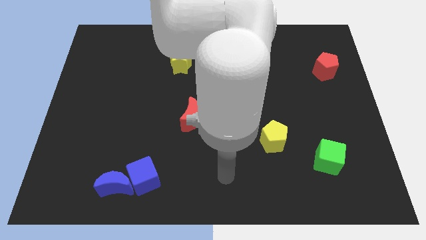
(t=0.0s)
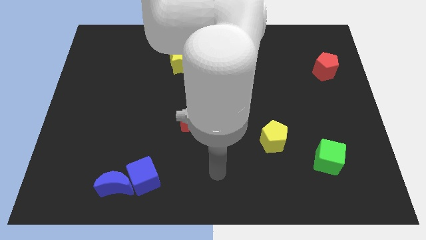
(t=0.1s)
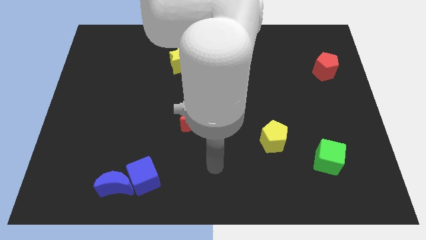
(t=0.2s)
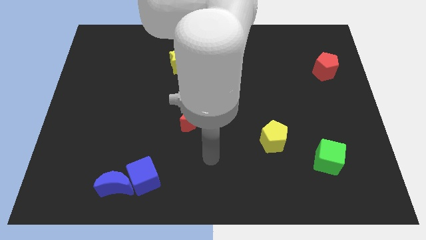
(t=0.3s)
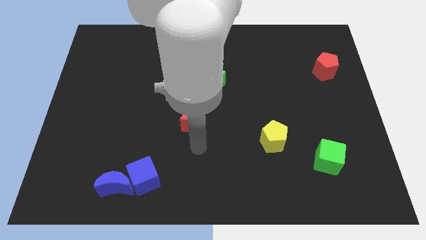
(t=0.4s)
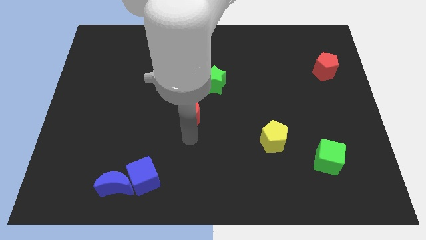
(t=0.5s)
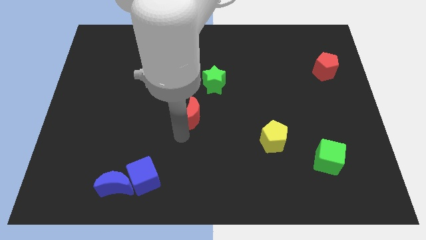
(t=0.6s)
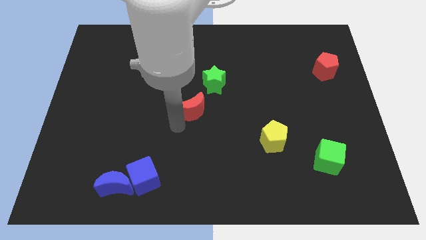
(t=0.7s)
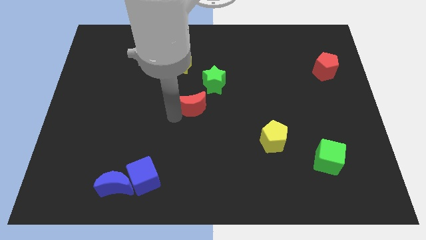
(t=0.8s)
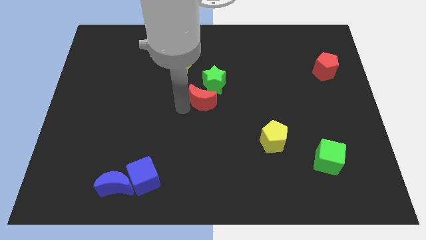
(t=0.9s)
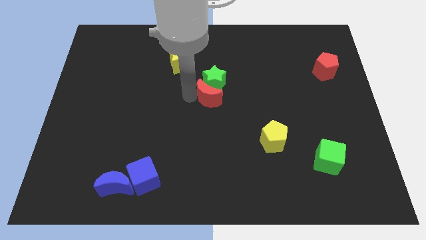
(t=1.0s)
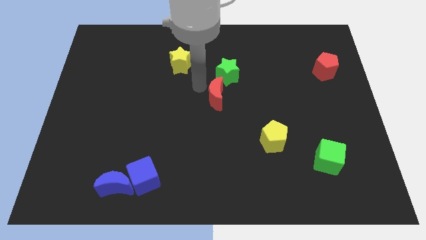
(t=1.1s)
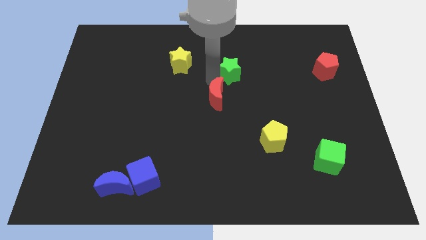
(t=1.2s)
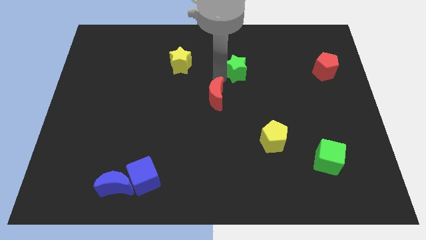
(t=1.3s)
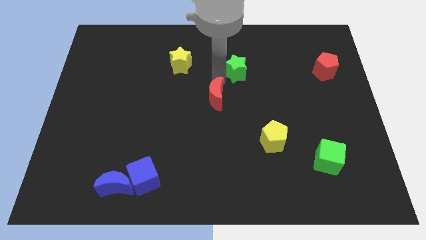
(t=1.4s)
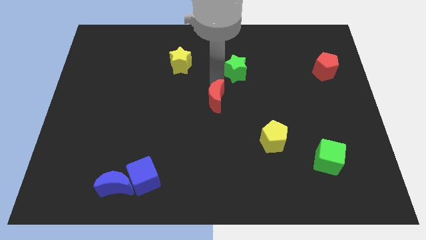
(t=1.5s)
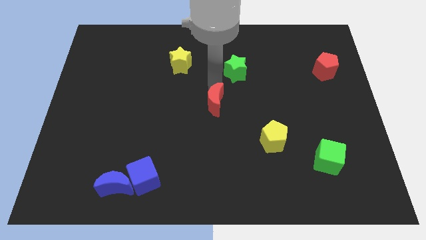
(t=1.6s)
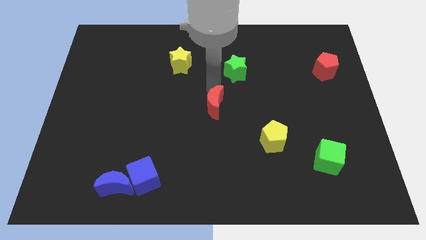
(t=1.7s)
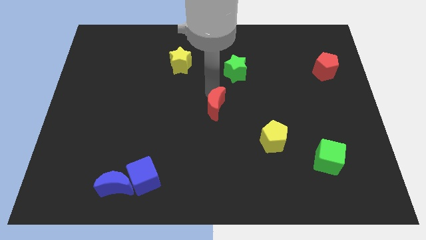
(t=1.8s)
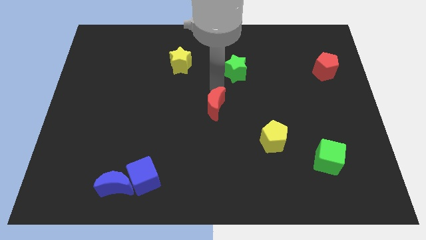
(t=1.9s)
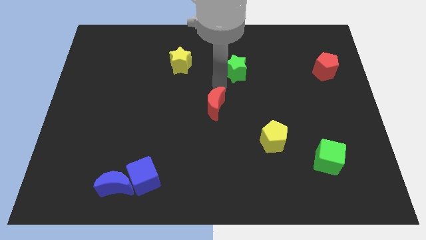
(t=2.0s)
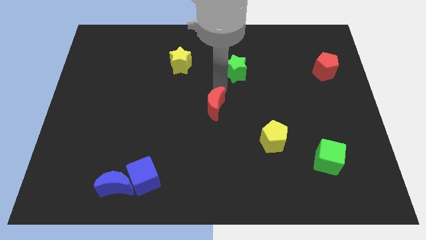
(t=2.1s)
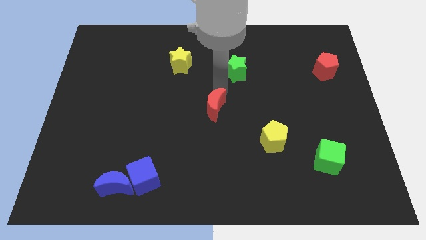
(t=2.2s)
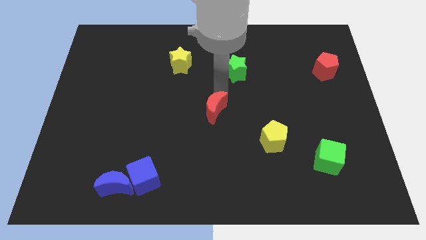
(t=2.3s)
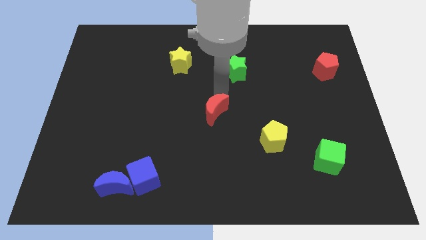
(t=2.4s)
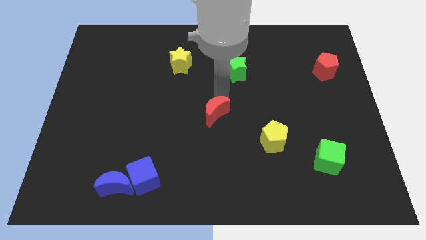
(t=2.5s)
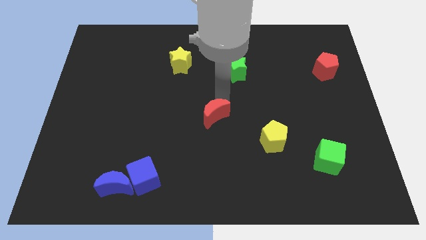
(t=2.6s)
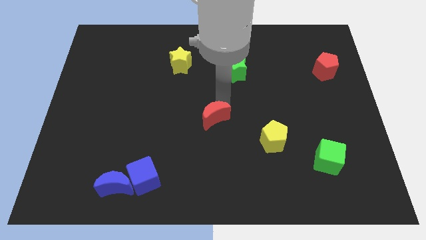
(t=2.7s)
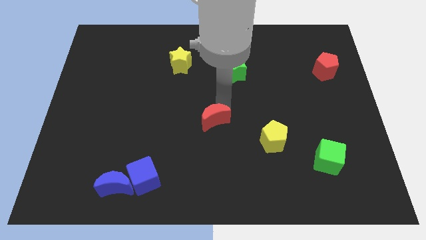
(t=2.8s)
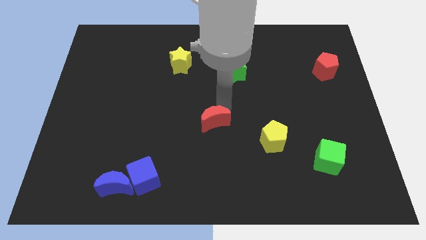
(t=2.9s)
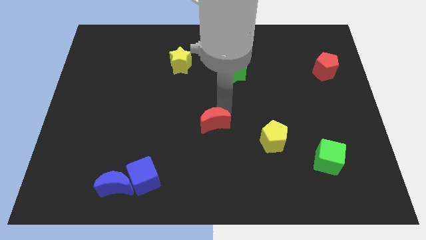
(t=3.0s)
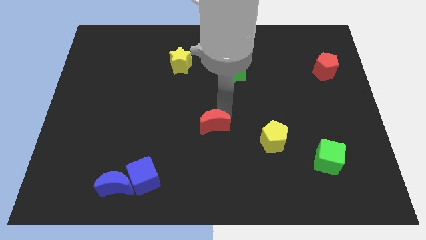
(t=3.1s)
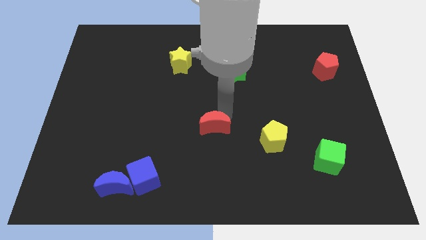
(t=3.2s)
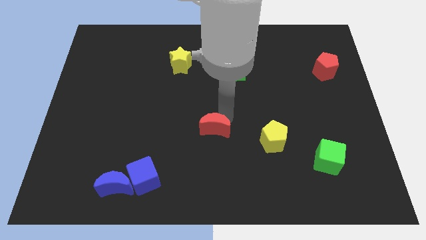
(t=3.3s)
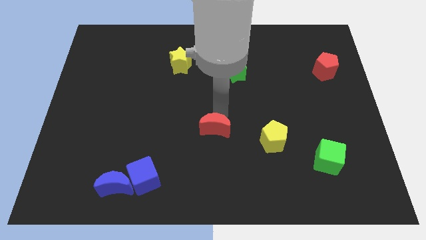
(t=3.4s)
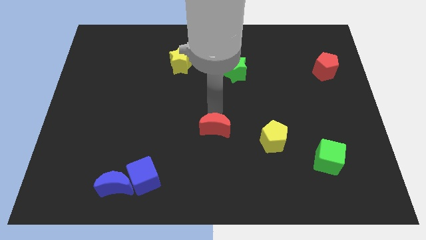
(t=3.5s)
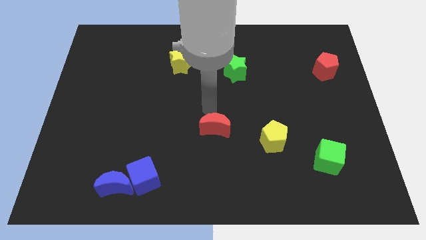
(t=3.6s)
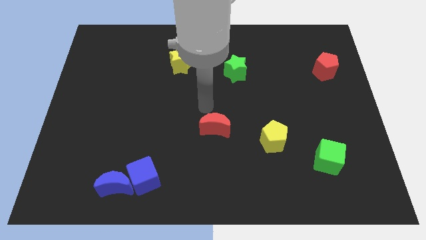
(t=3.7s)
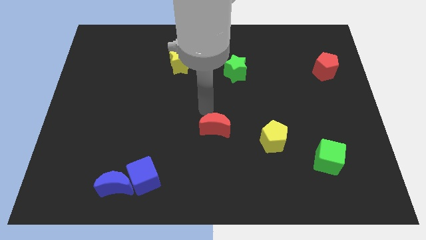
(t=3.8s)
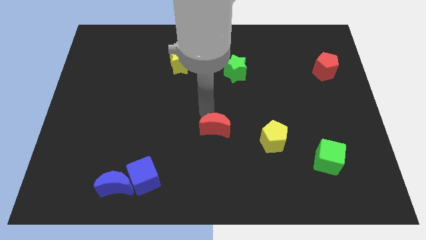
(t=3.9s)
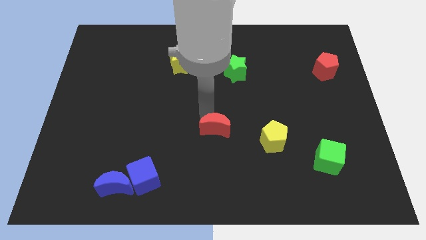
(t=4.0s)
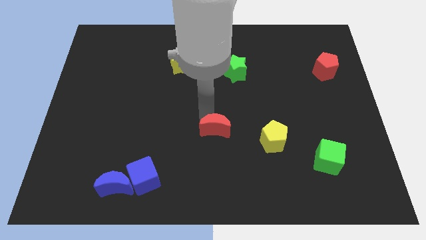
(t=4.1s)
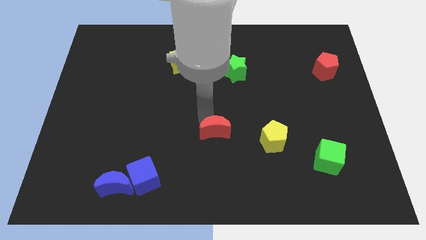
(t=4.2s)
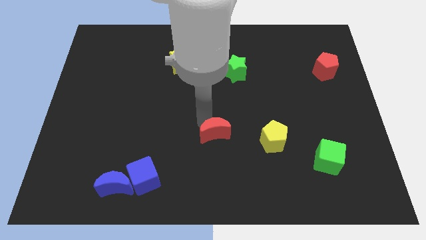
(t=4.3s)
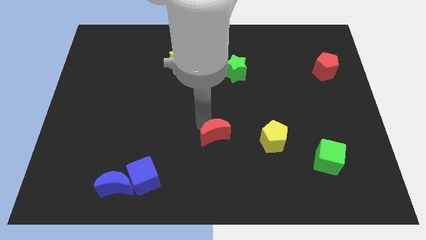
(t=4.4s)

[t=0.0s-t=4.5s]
slightly move the red moon downwards and right

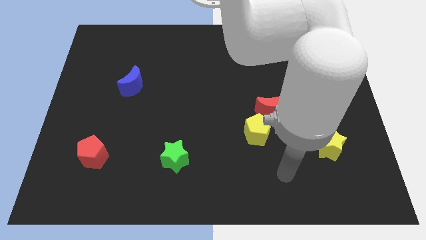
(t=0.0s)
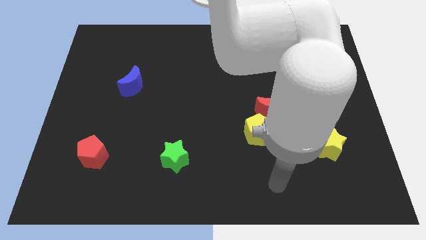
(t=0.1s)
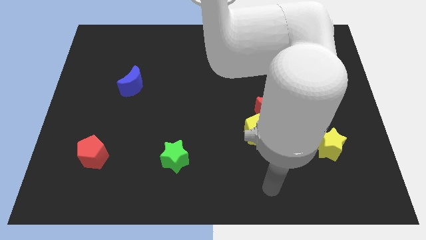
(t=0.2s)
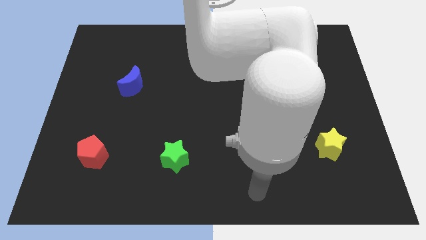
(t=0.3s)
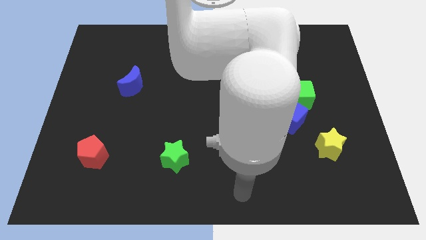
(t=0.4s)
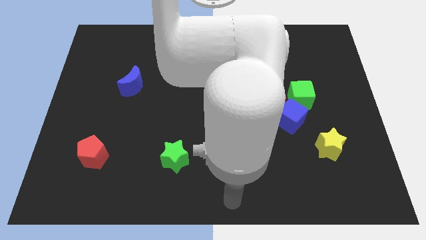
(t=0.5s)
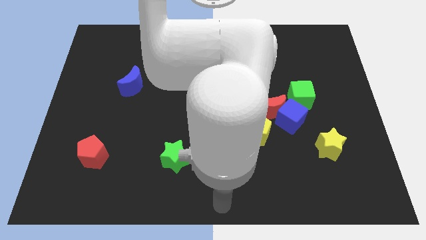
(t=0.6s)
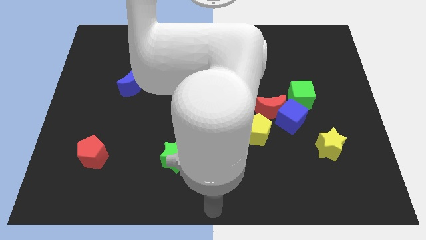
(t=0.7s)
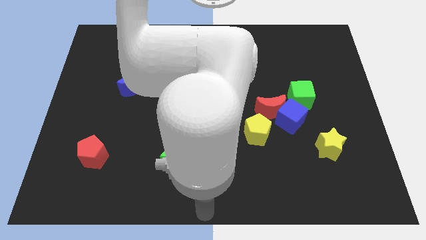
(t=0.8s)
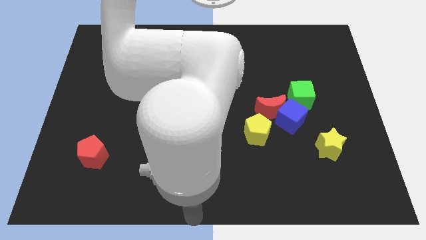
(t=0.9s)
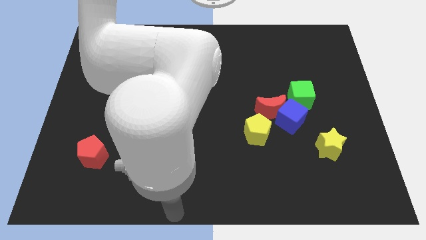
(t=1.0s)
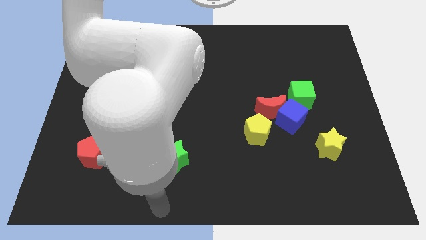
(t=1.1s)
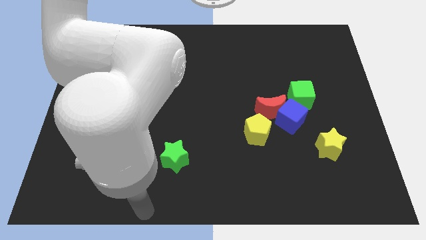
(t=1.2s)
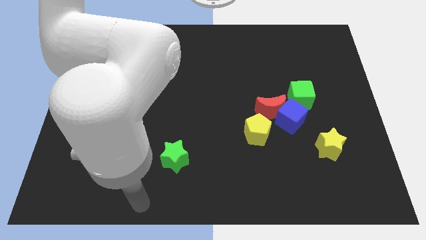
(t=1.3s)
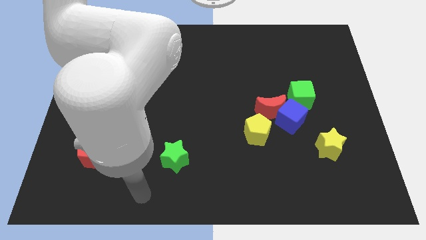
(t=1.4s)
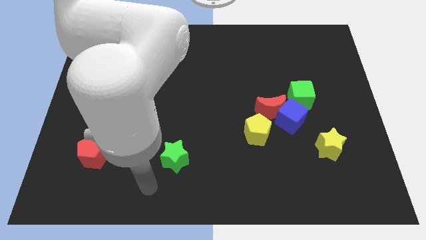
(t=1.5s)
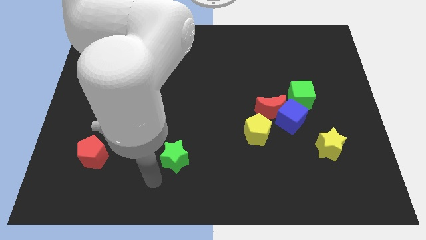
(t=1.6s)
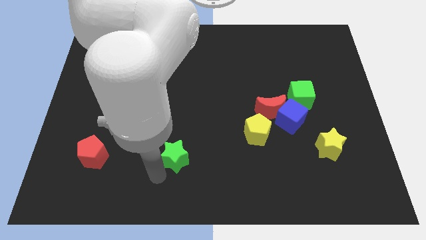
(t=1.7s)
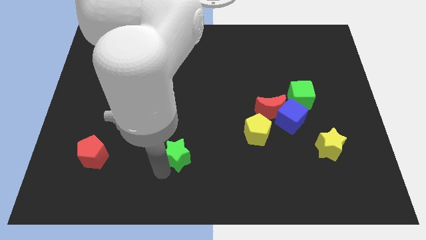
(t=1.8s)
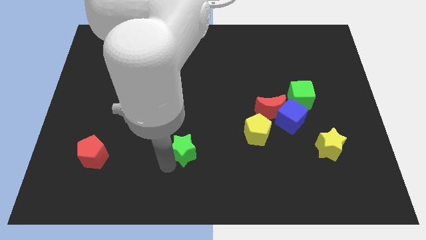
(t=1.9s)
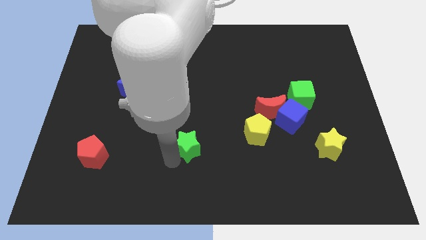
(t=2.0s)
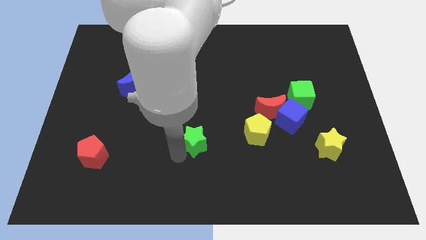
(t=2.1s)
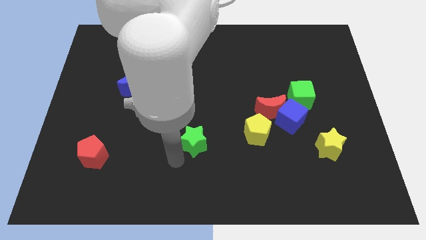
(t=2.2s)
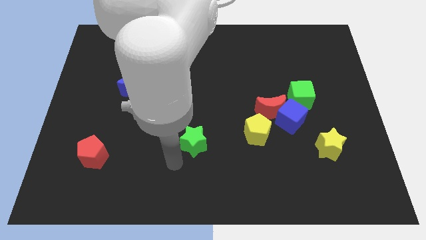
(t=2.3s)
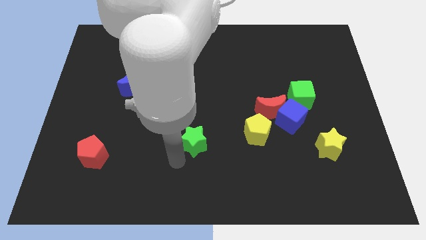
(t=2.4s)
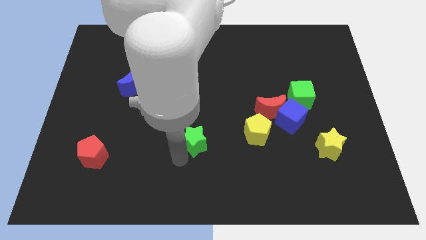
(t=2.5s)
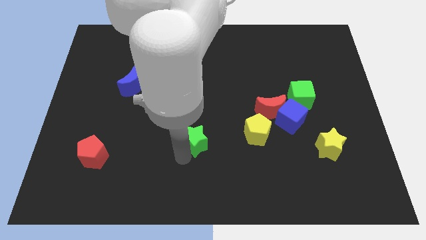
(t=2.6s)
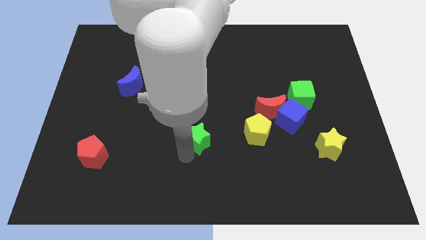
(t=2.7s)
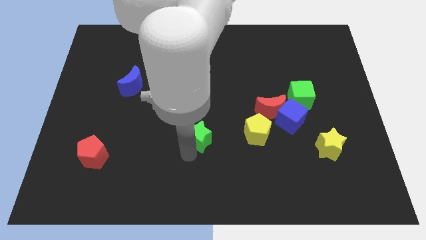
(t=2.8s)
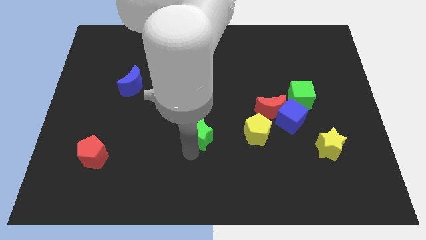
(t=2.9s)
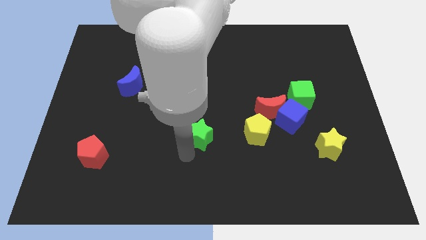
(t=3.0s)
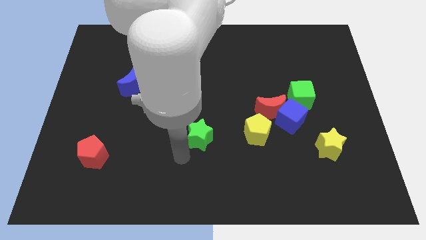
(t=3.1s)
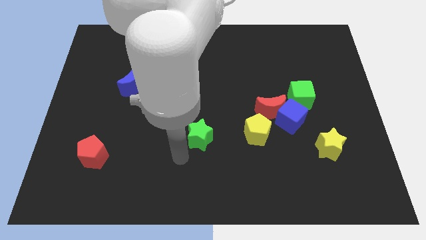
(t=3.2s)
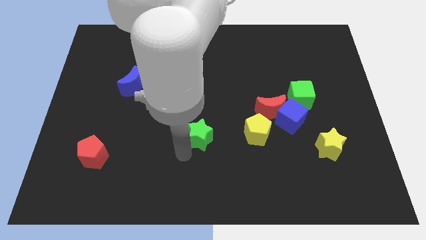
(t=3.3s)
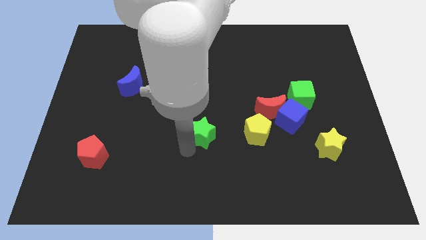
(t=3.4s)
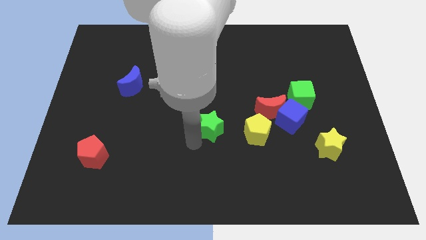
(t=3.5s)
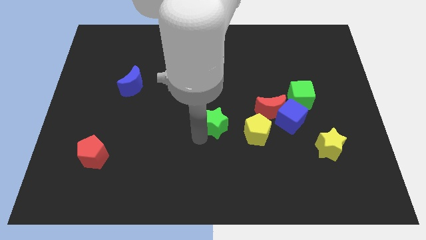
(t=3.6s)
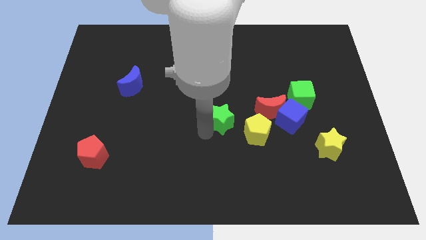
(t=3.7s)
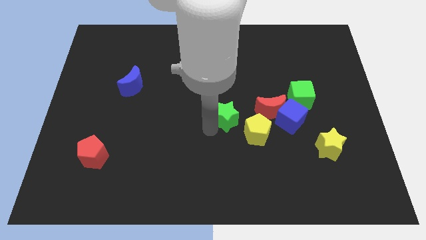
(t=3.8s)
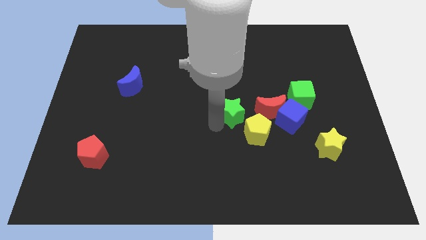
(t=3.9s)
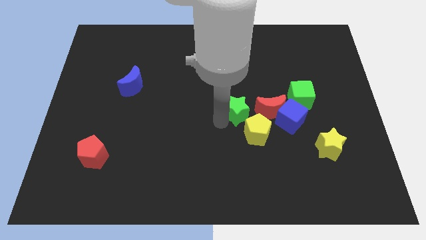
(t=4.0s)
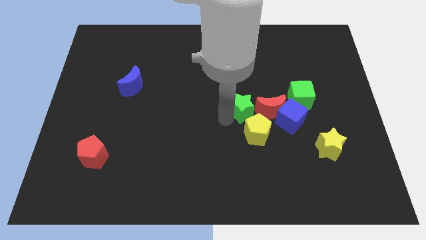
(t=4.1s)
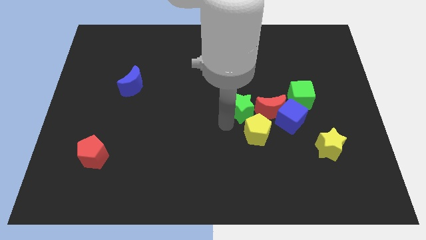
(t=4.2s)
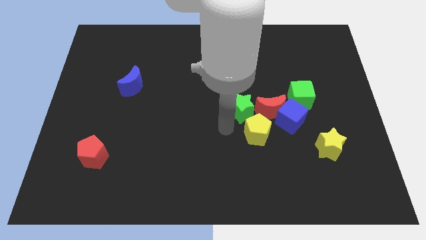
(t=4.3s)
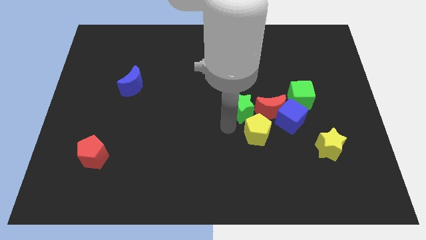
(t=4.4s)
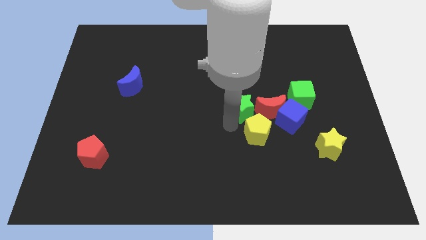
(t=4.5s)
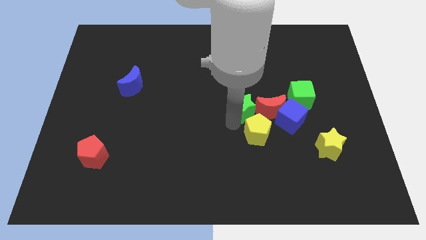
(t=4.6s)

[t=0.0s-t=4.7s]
push the green star up and right
